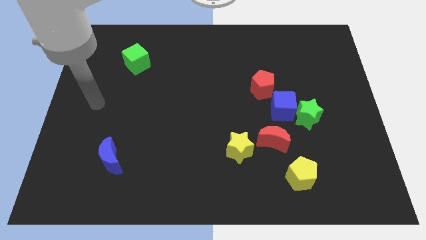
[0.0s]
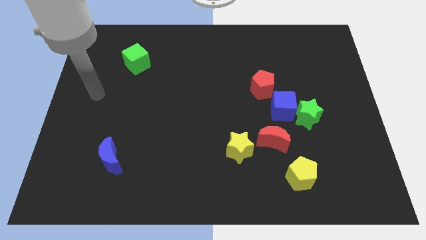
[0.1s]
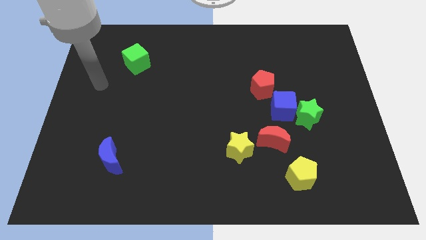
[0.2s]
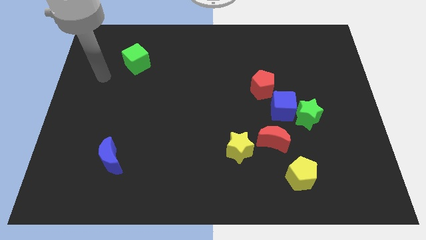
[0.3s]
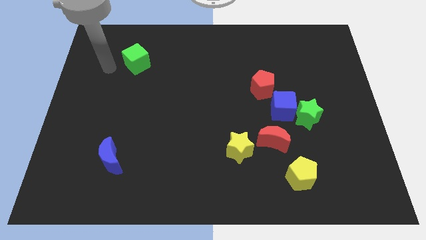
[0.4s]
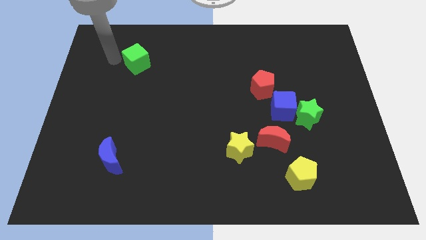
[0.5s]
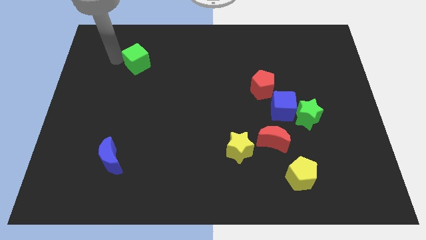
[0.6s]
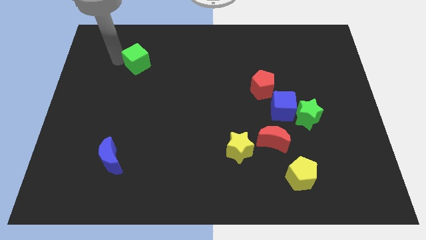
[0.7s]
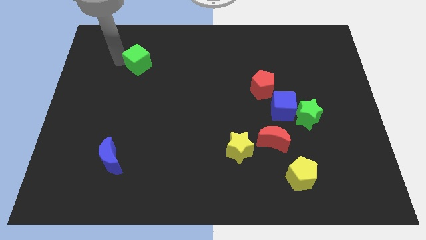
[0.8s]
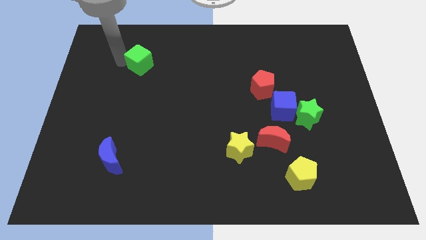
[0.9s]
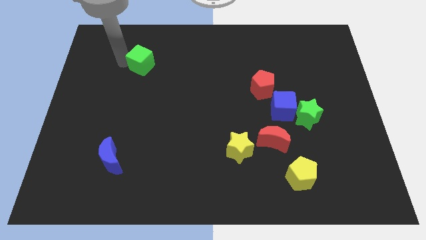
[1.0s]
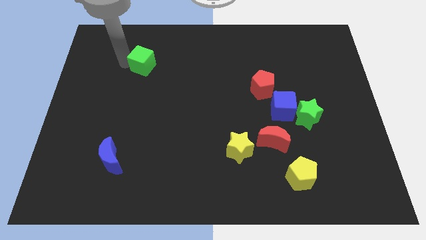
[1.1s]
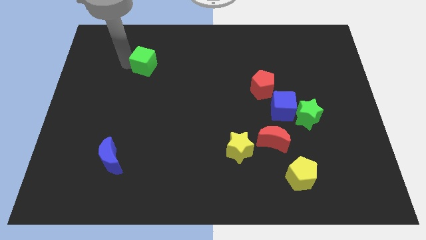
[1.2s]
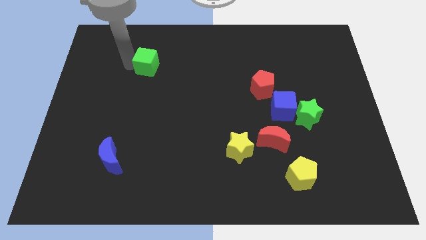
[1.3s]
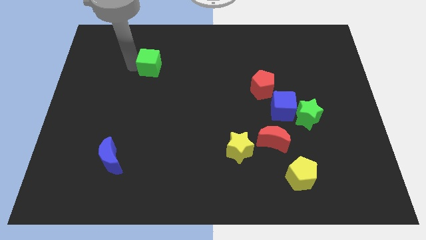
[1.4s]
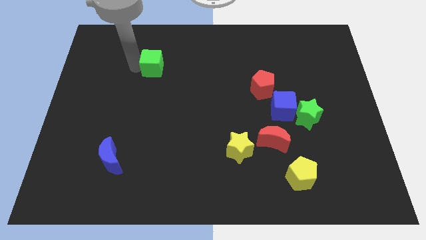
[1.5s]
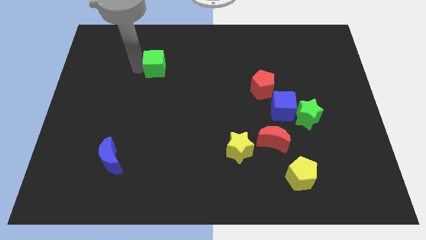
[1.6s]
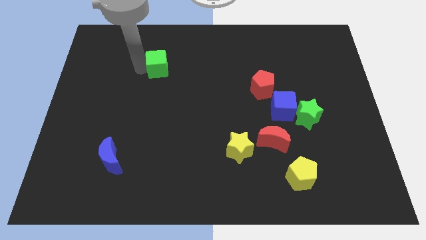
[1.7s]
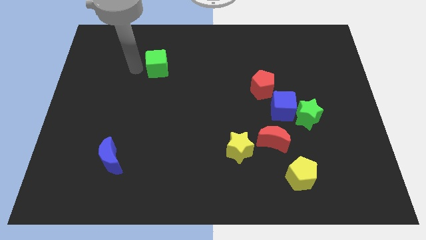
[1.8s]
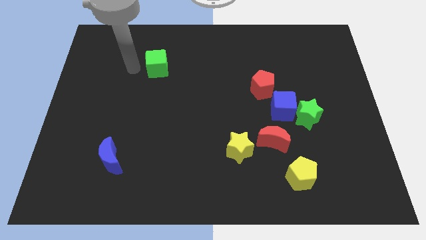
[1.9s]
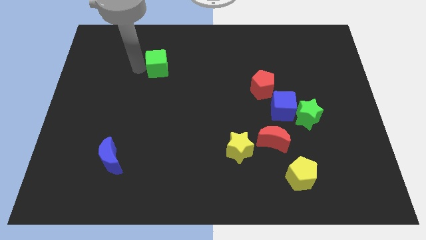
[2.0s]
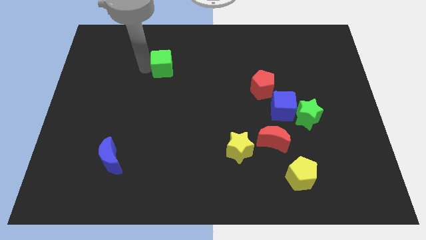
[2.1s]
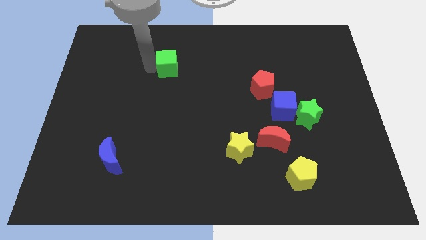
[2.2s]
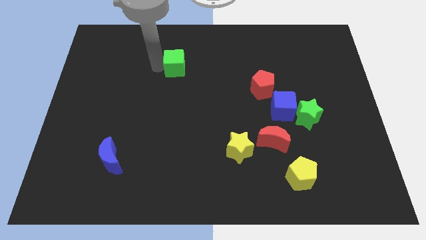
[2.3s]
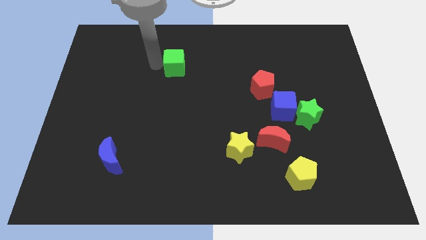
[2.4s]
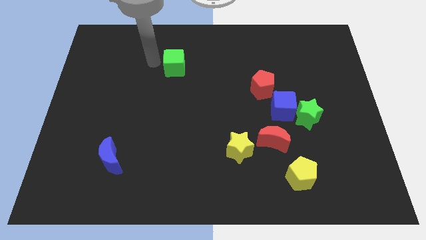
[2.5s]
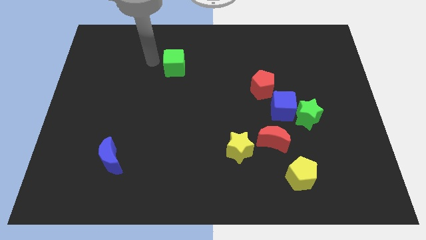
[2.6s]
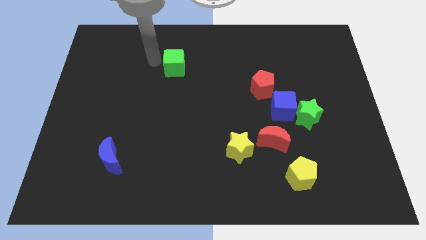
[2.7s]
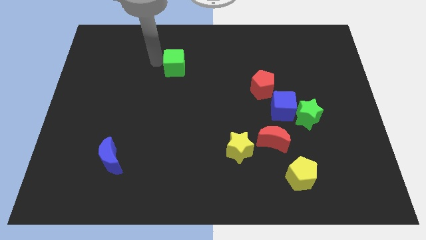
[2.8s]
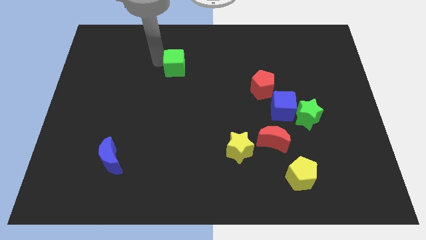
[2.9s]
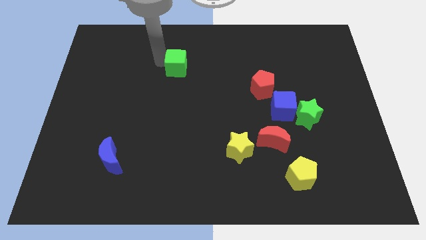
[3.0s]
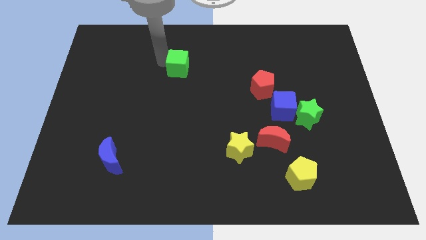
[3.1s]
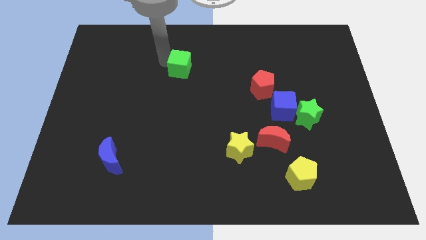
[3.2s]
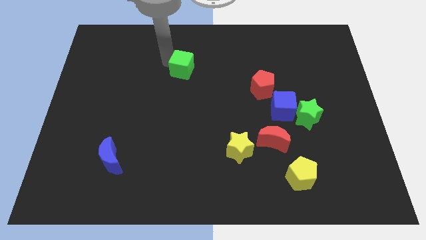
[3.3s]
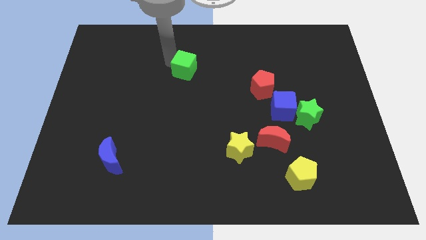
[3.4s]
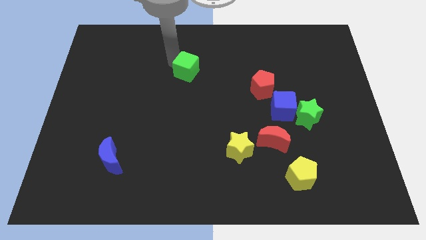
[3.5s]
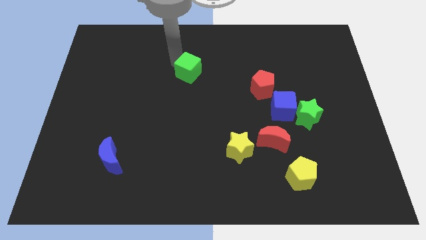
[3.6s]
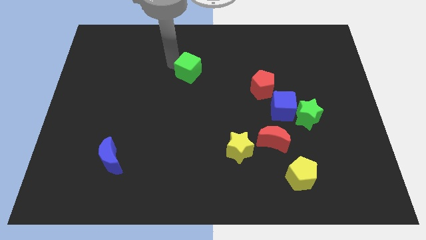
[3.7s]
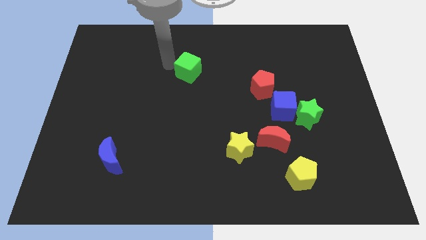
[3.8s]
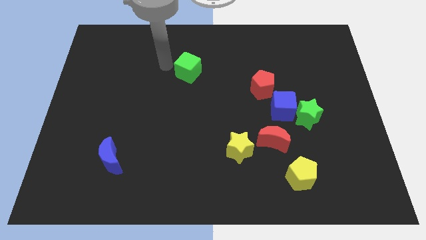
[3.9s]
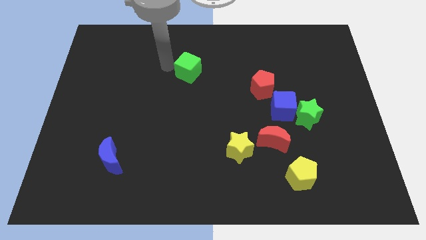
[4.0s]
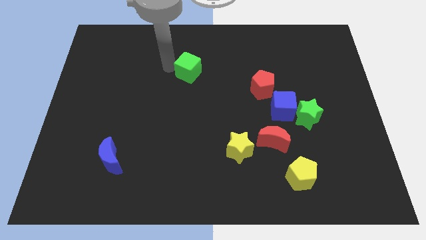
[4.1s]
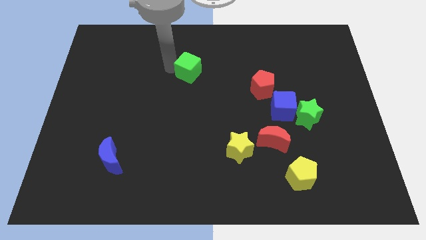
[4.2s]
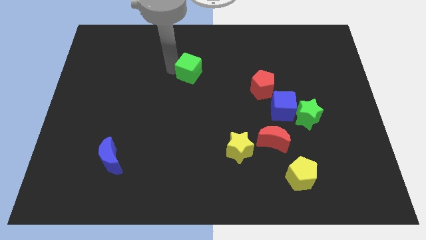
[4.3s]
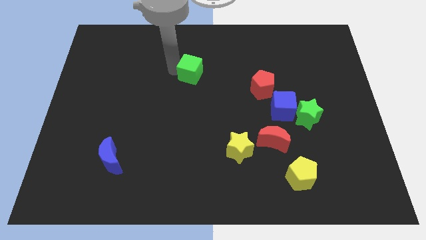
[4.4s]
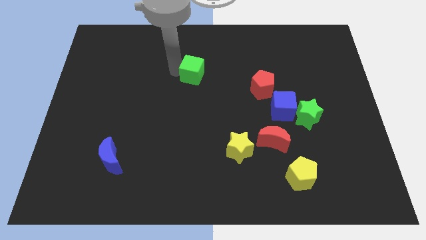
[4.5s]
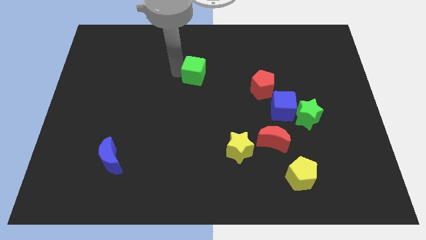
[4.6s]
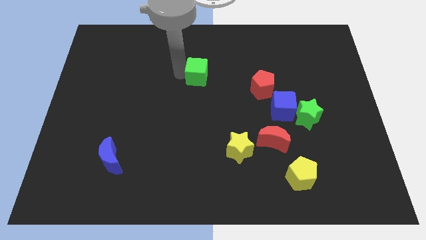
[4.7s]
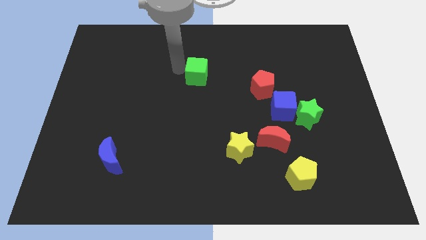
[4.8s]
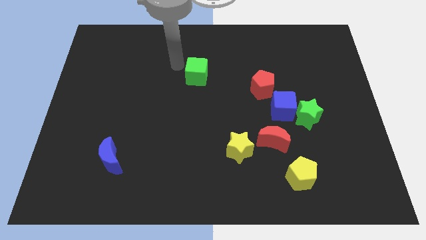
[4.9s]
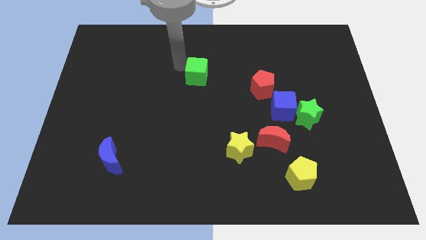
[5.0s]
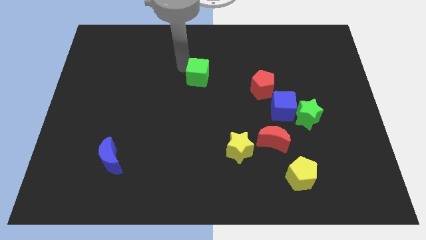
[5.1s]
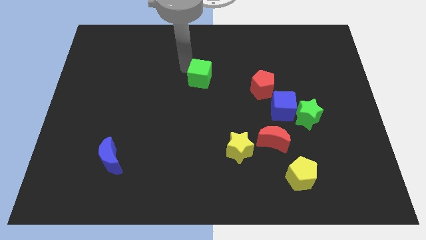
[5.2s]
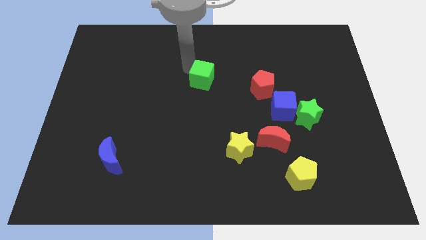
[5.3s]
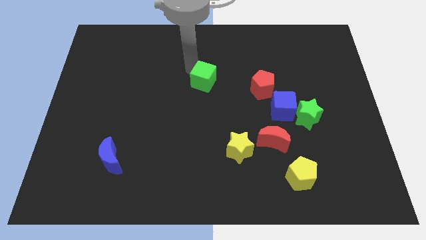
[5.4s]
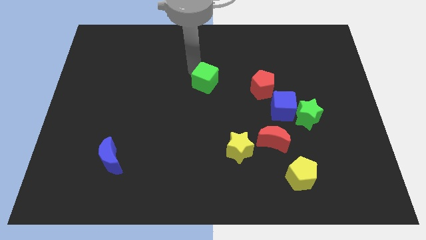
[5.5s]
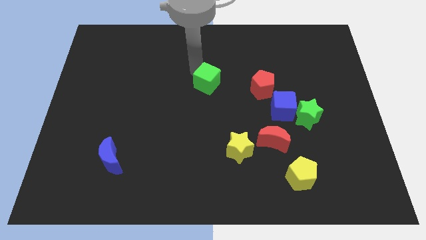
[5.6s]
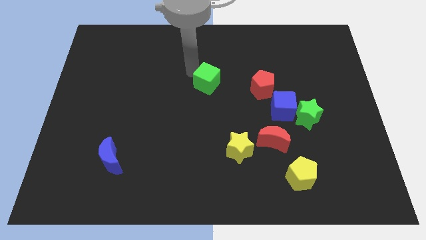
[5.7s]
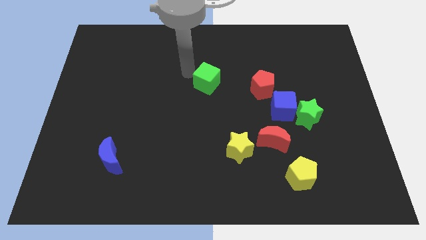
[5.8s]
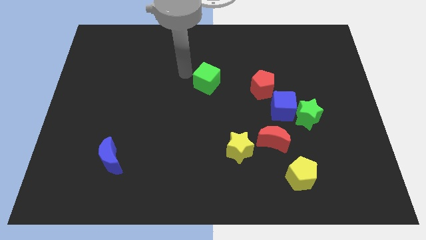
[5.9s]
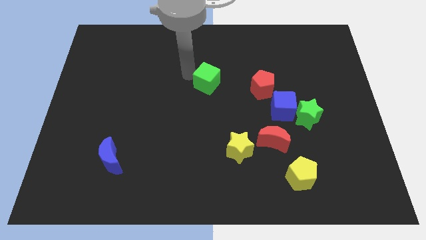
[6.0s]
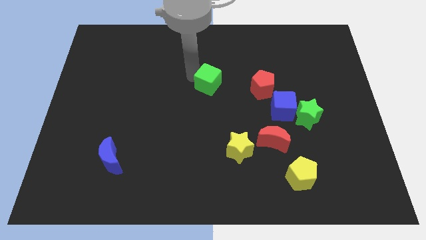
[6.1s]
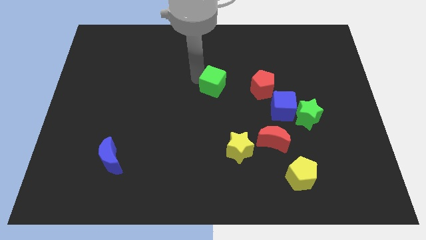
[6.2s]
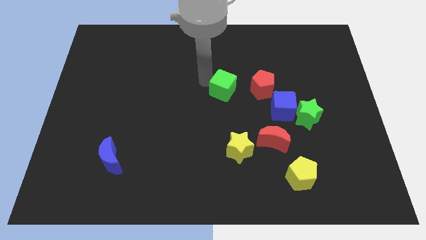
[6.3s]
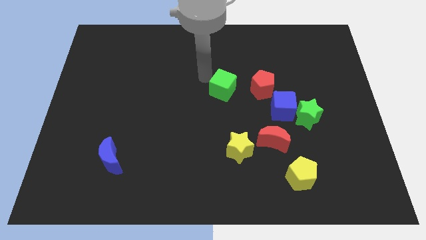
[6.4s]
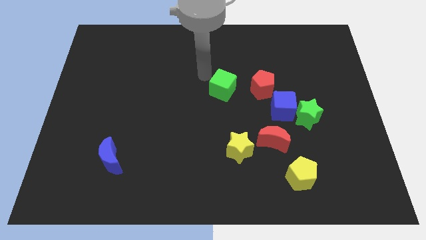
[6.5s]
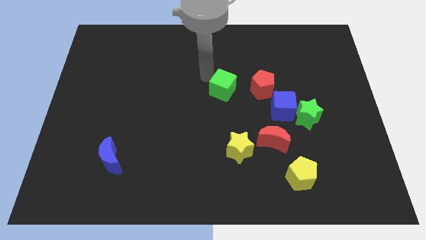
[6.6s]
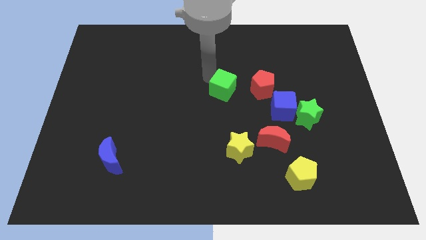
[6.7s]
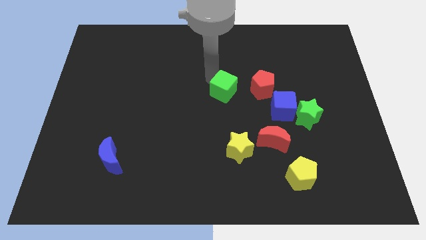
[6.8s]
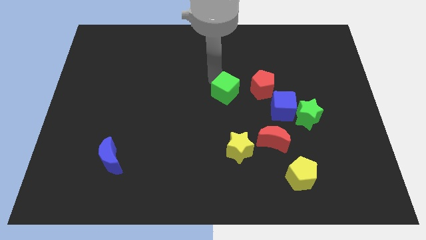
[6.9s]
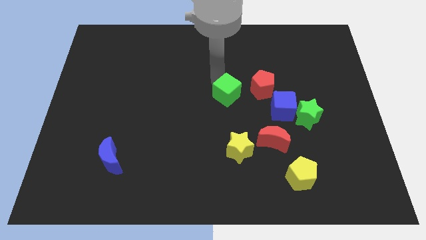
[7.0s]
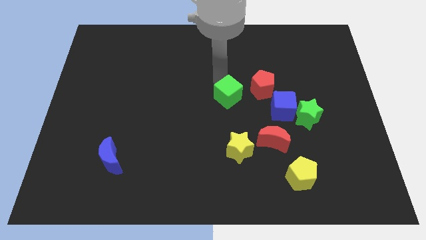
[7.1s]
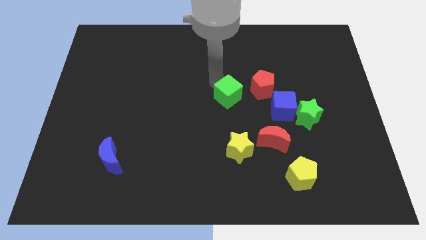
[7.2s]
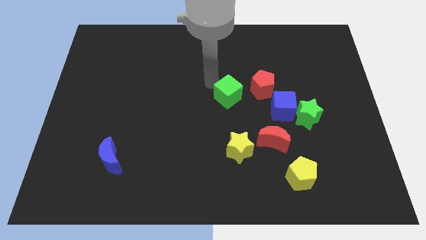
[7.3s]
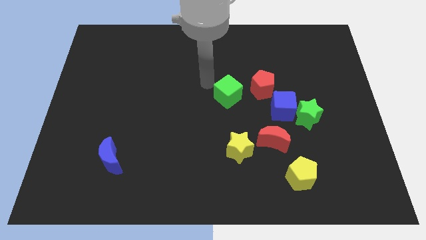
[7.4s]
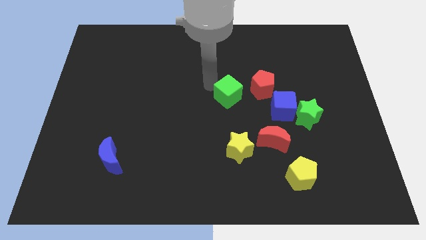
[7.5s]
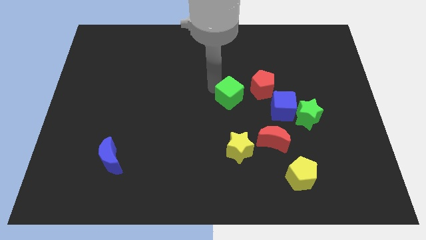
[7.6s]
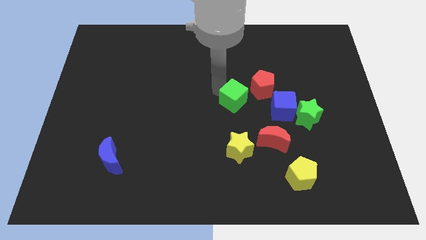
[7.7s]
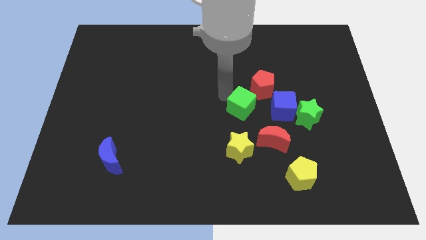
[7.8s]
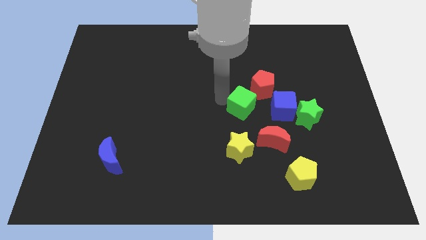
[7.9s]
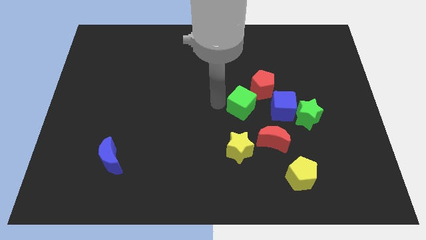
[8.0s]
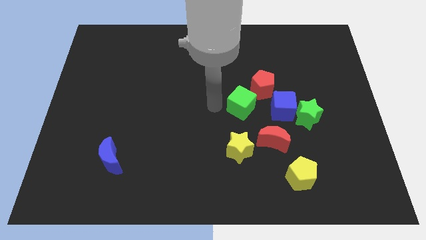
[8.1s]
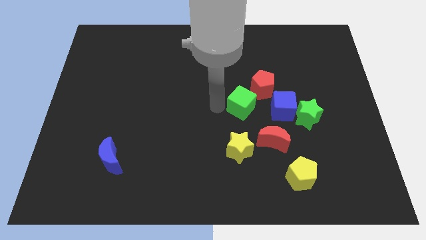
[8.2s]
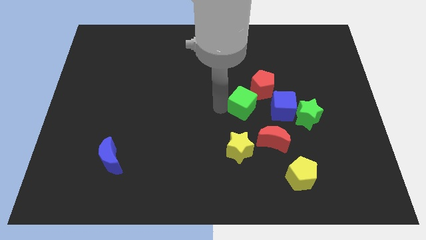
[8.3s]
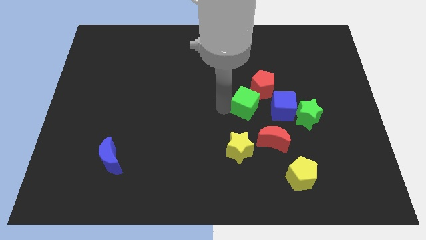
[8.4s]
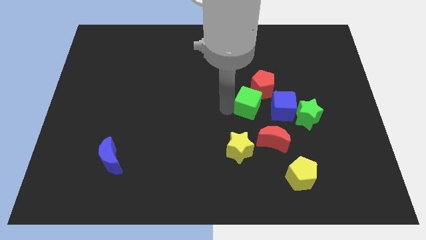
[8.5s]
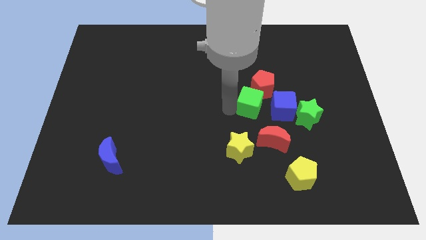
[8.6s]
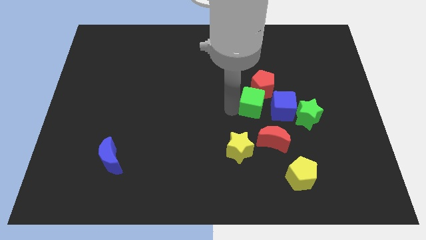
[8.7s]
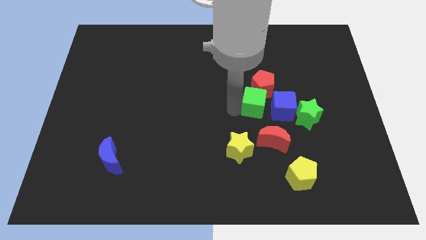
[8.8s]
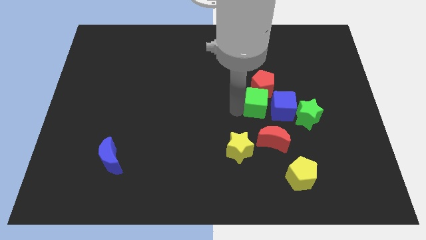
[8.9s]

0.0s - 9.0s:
slide the green cube towards the blue cube
